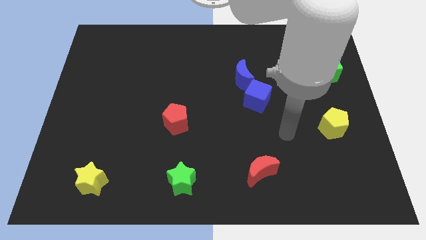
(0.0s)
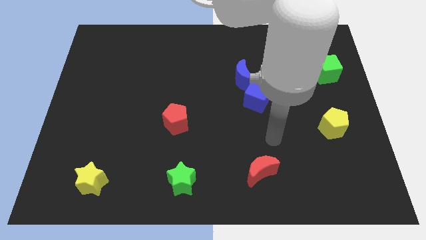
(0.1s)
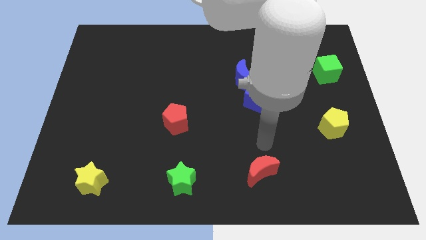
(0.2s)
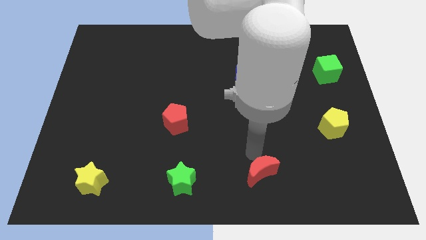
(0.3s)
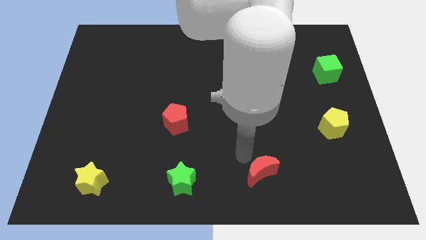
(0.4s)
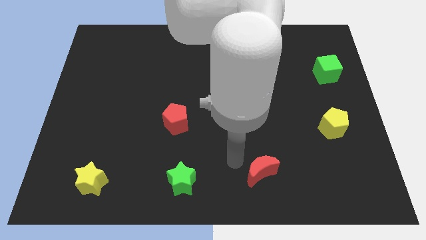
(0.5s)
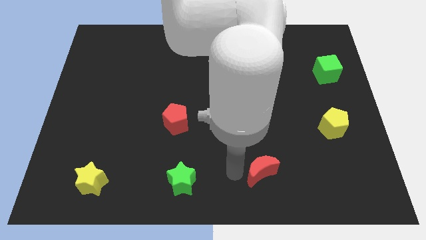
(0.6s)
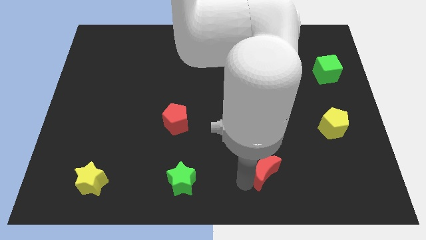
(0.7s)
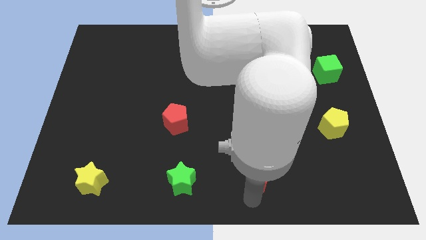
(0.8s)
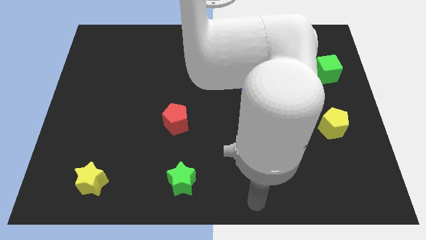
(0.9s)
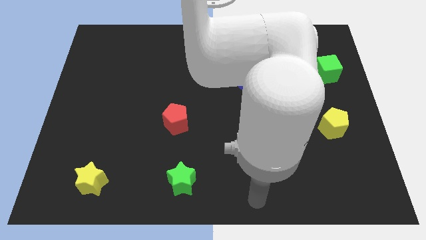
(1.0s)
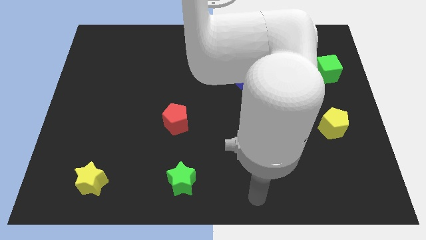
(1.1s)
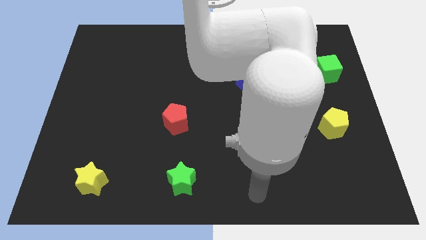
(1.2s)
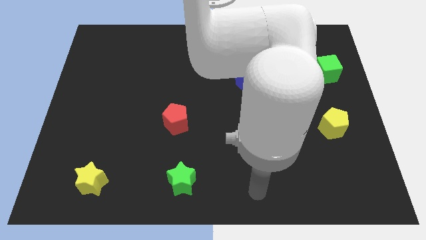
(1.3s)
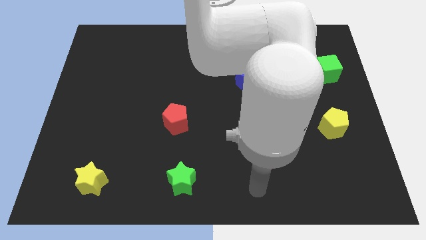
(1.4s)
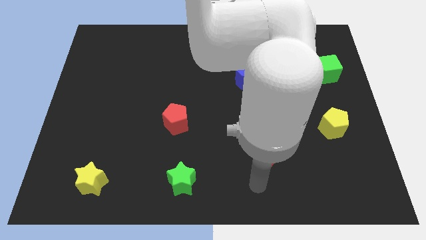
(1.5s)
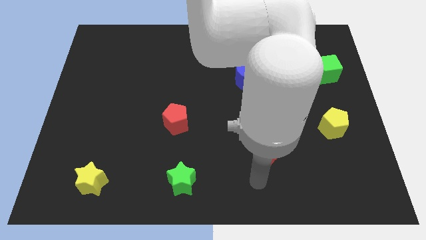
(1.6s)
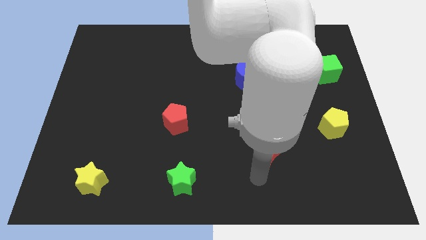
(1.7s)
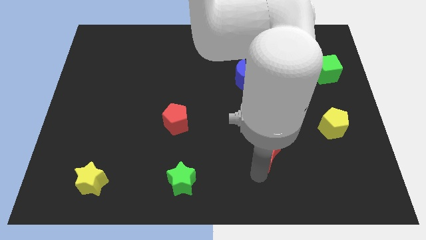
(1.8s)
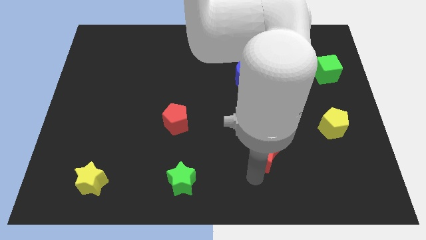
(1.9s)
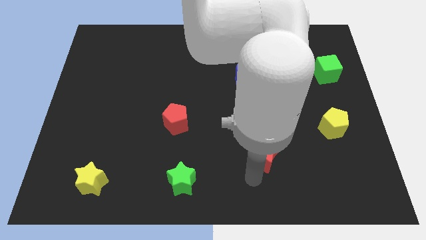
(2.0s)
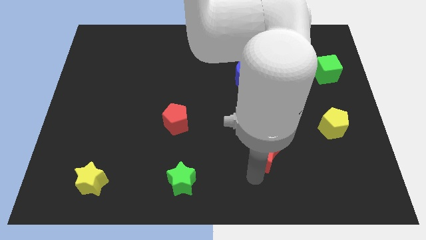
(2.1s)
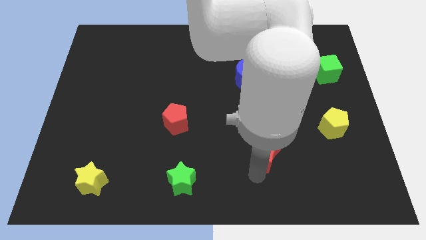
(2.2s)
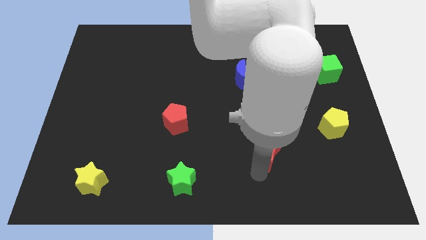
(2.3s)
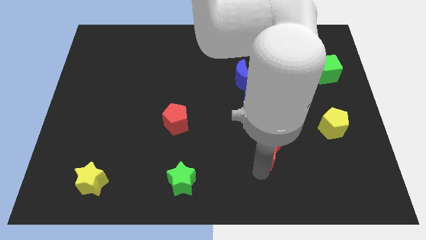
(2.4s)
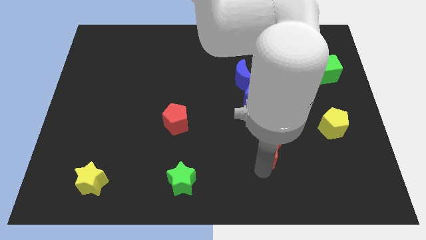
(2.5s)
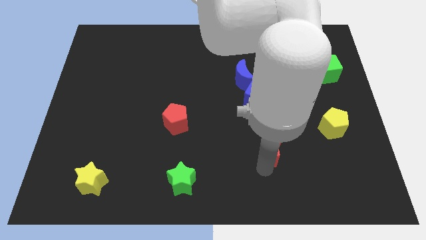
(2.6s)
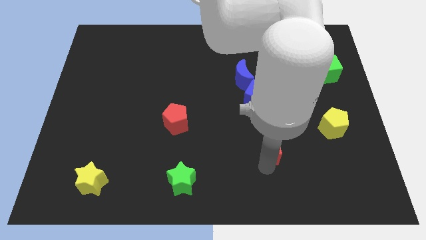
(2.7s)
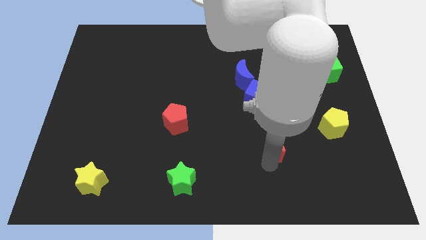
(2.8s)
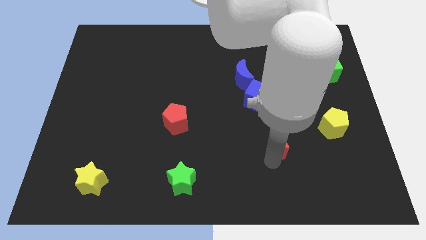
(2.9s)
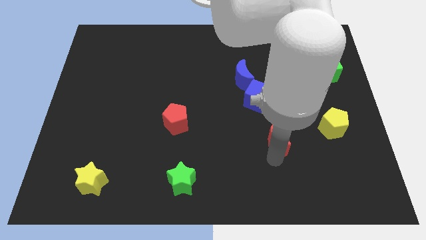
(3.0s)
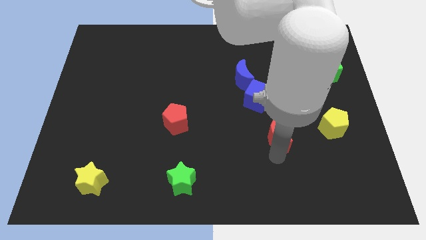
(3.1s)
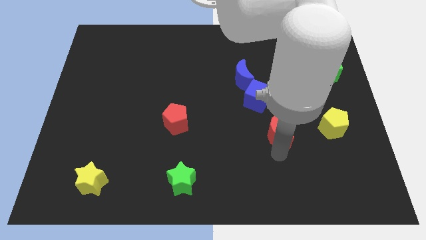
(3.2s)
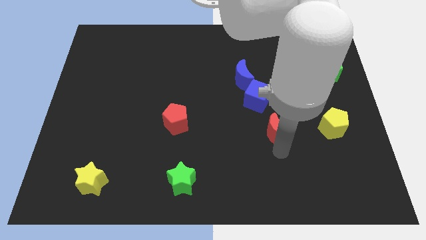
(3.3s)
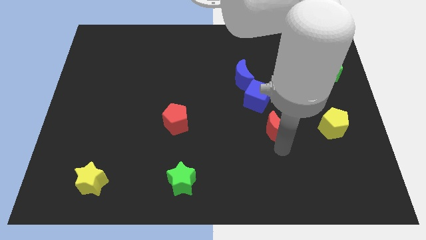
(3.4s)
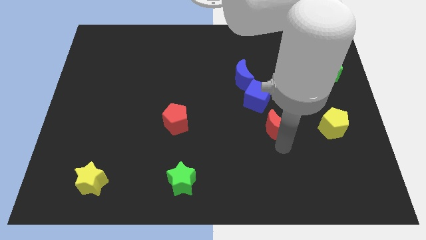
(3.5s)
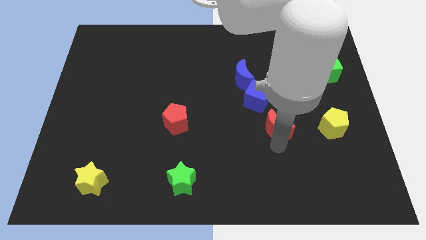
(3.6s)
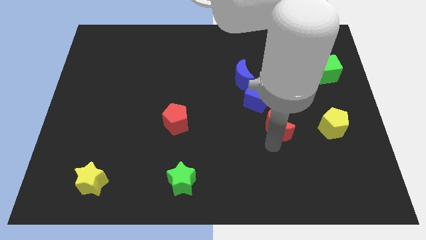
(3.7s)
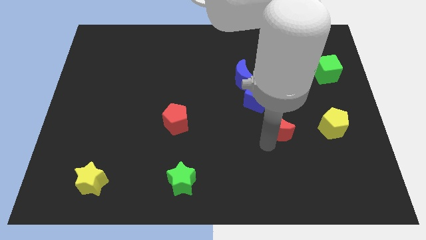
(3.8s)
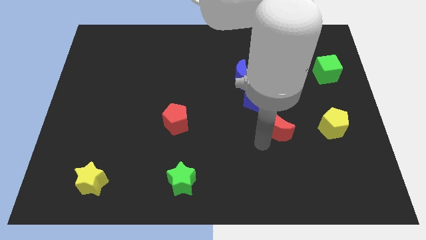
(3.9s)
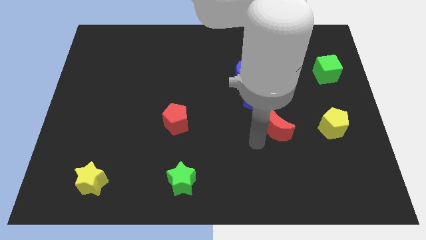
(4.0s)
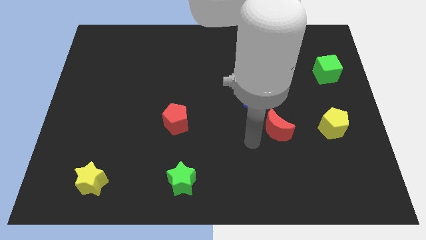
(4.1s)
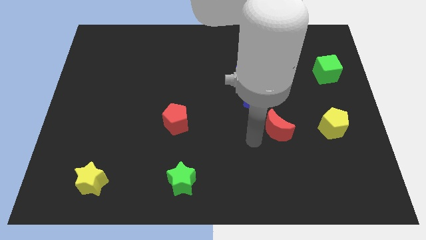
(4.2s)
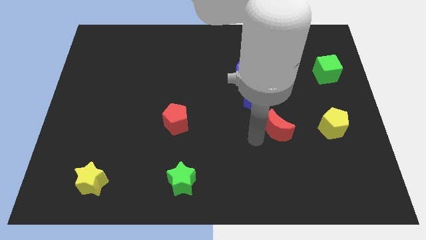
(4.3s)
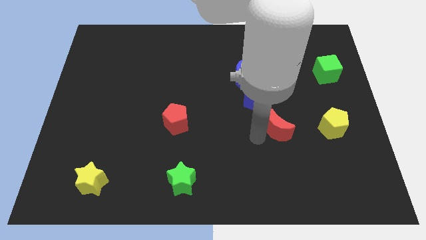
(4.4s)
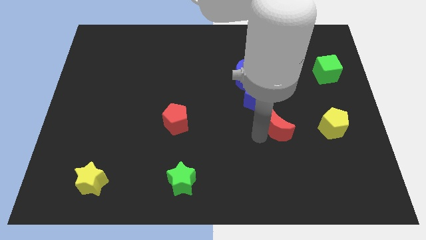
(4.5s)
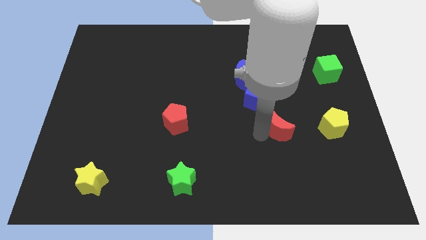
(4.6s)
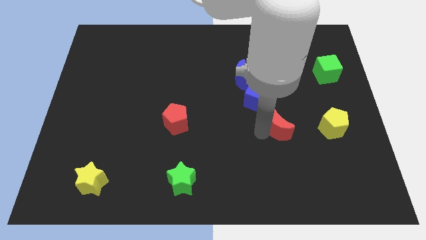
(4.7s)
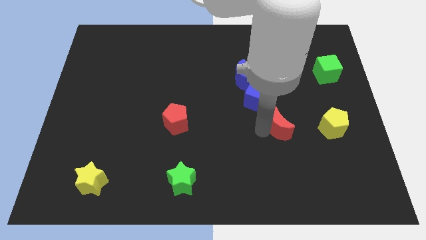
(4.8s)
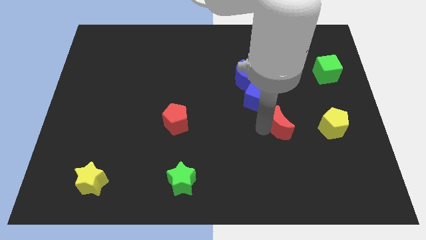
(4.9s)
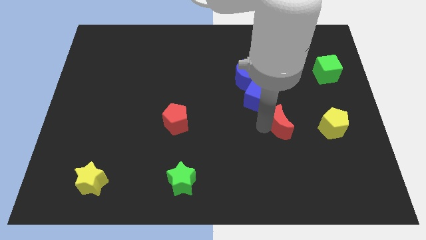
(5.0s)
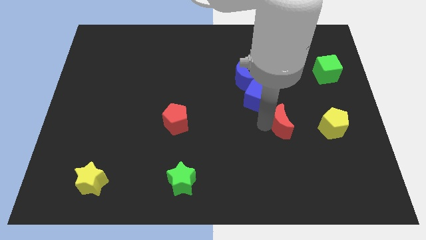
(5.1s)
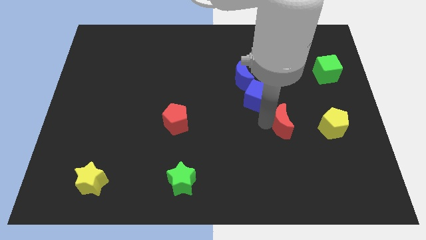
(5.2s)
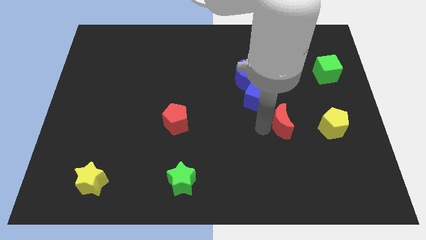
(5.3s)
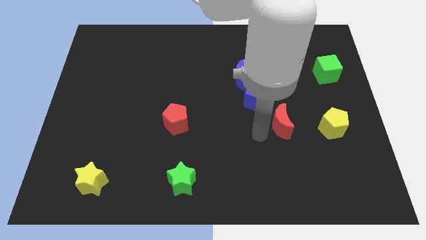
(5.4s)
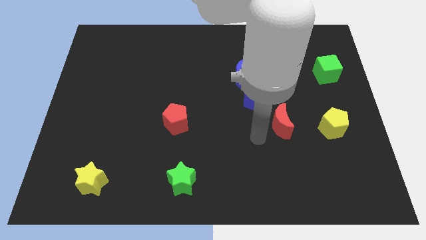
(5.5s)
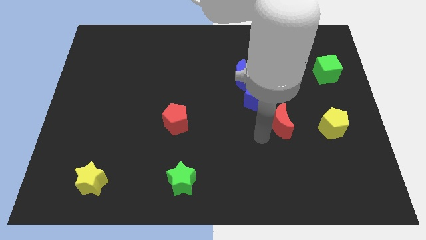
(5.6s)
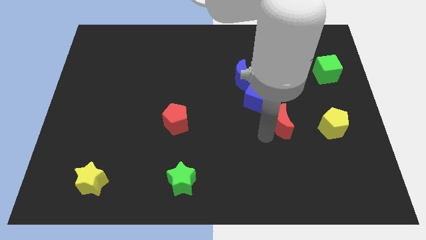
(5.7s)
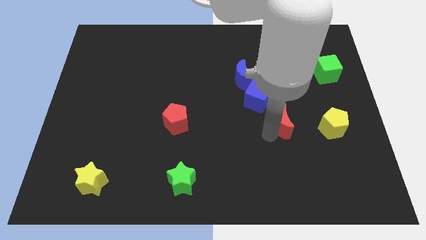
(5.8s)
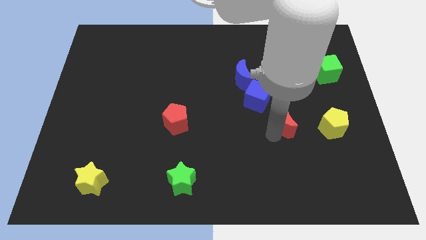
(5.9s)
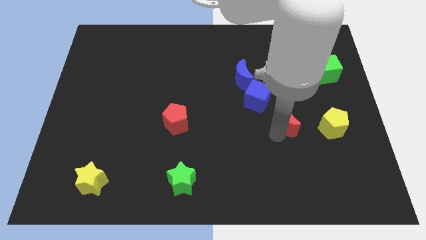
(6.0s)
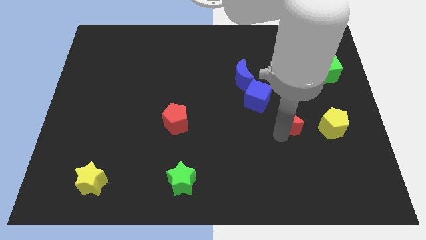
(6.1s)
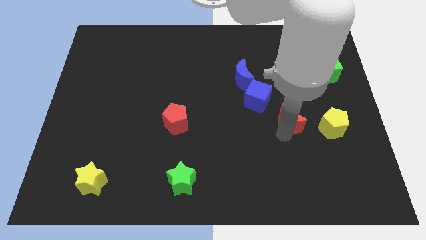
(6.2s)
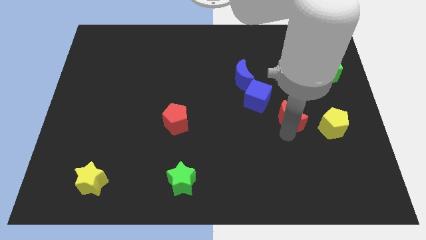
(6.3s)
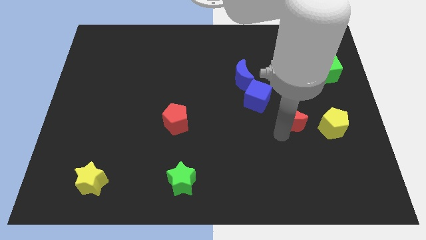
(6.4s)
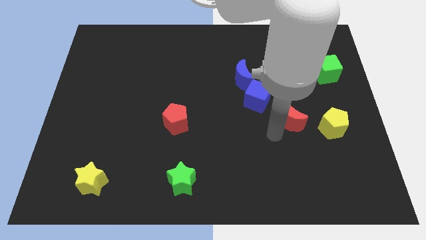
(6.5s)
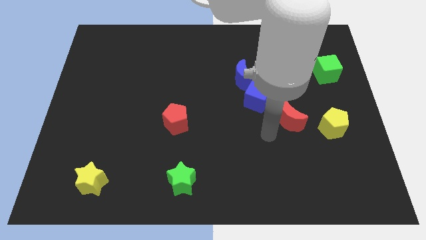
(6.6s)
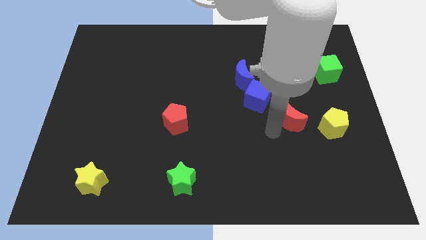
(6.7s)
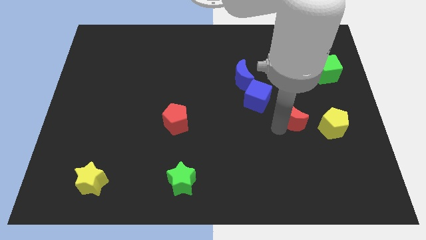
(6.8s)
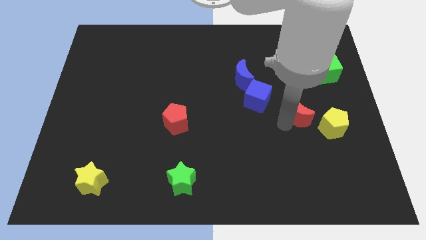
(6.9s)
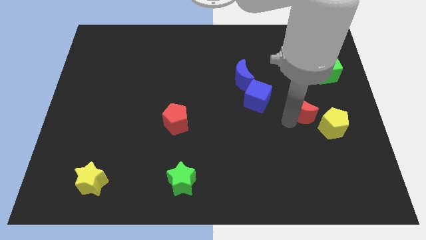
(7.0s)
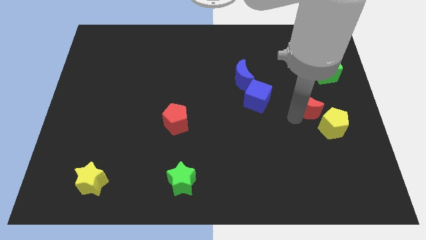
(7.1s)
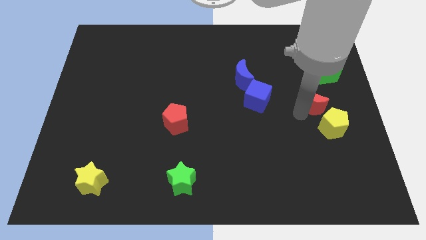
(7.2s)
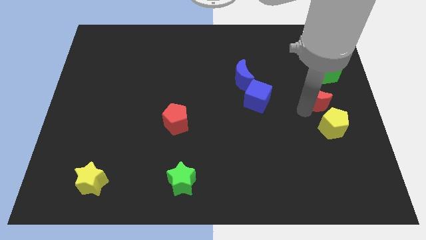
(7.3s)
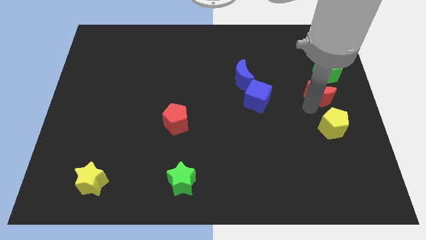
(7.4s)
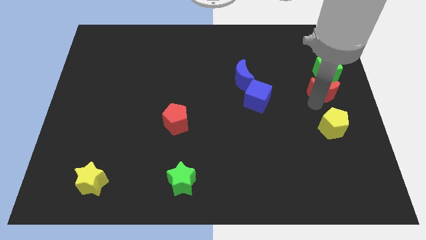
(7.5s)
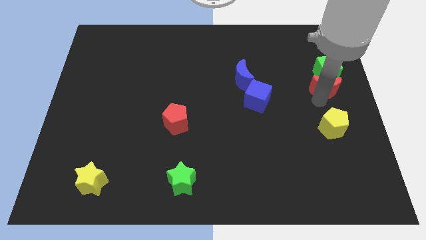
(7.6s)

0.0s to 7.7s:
move the red moon towards the green cube

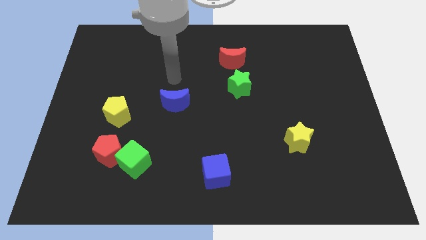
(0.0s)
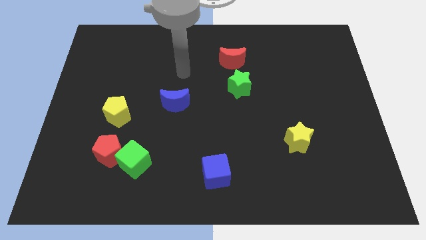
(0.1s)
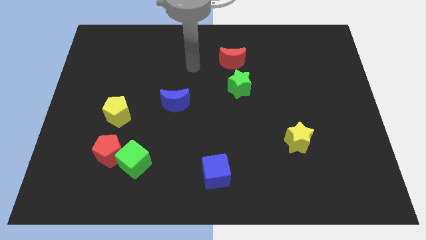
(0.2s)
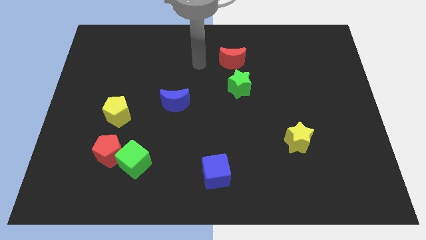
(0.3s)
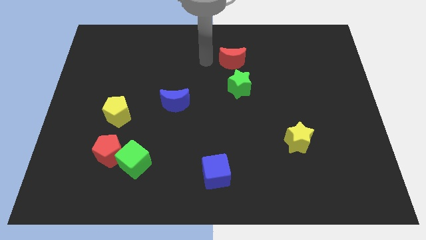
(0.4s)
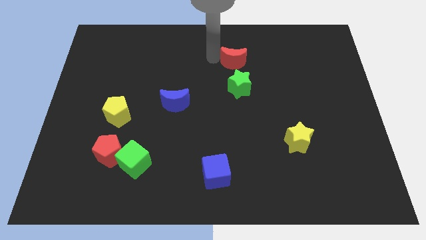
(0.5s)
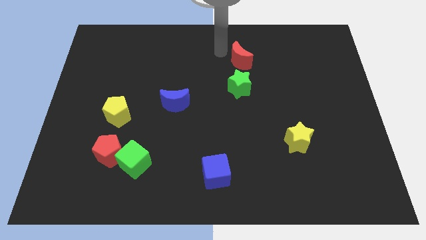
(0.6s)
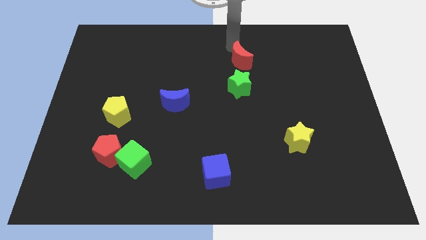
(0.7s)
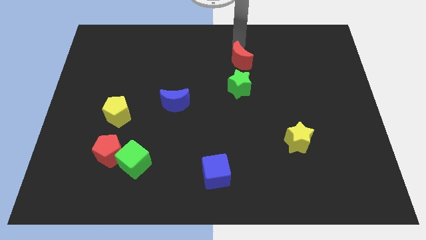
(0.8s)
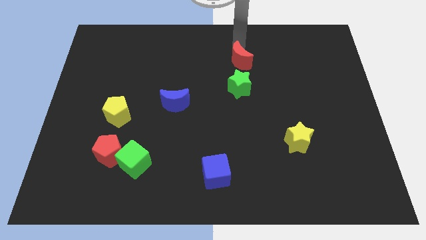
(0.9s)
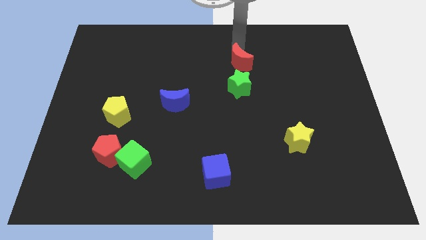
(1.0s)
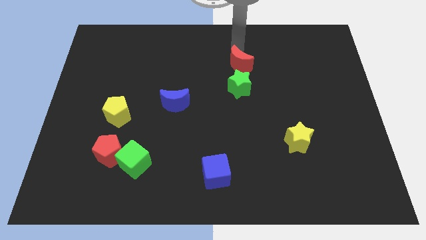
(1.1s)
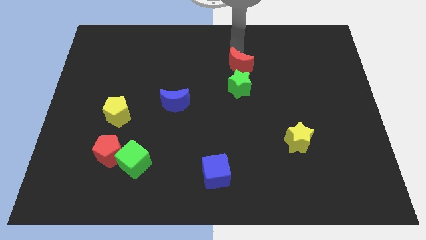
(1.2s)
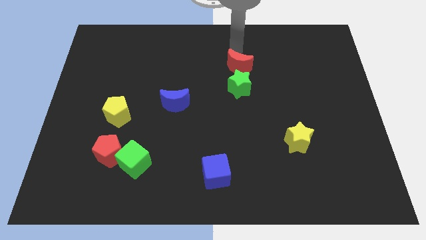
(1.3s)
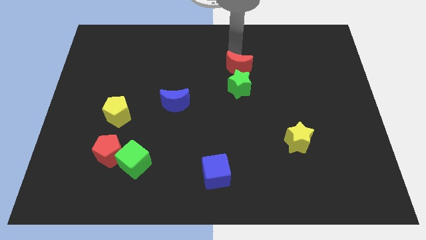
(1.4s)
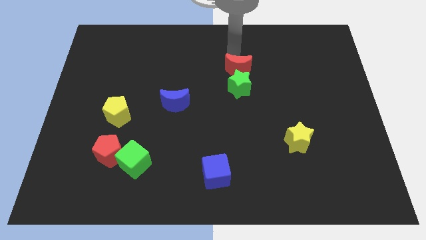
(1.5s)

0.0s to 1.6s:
put the red moon next to the green star
